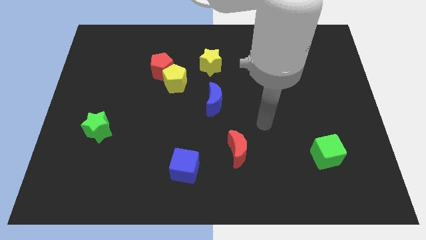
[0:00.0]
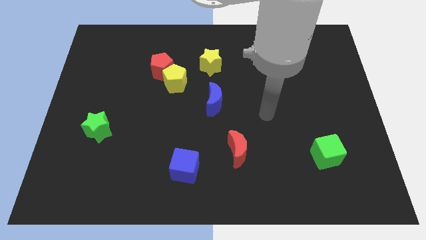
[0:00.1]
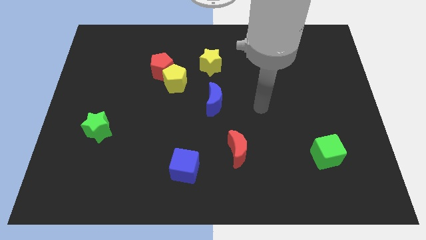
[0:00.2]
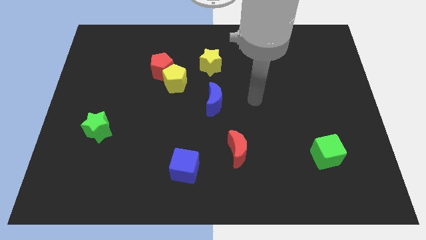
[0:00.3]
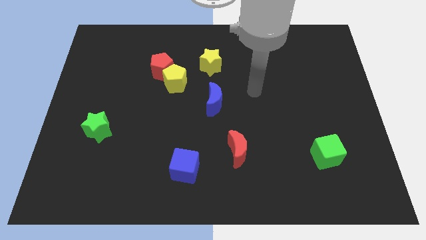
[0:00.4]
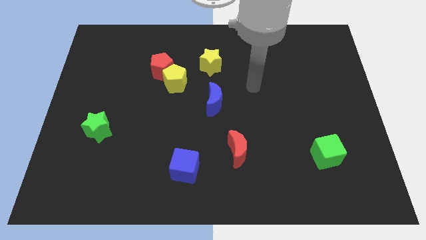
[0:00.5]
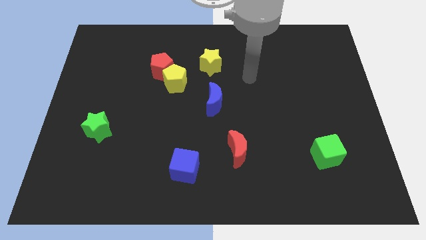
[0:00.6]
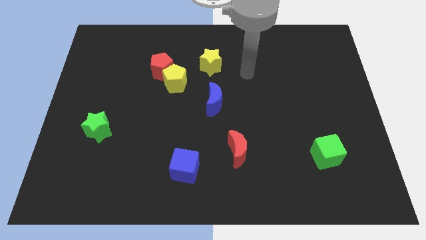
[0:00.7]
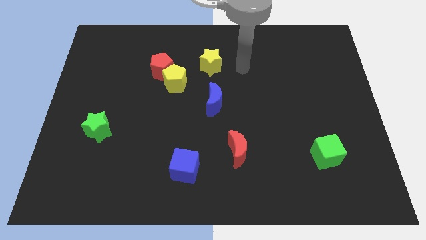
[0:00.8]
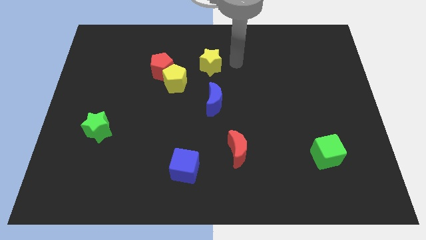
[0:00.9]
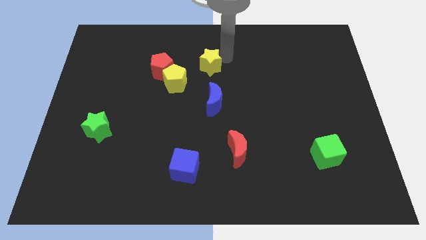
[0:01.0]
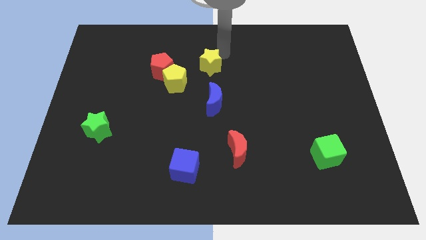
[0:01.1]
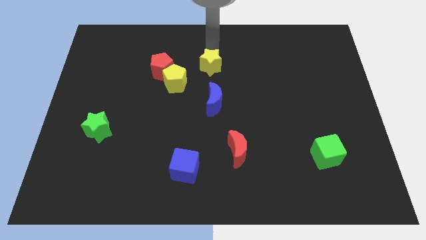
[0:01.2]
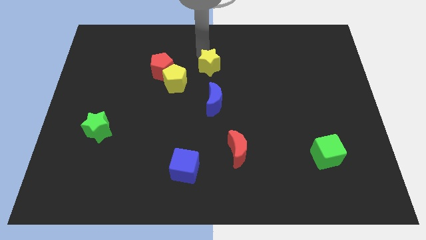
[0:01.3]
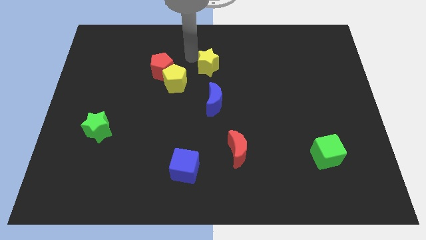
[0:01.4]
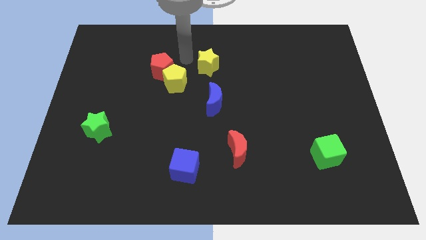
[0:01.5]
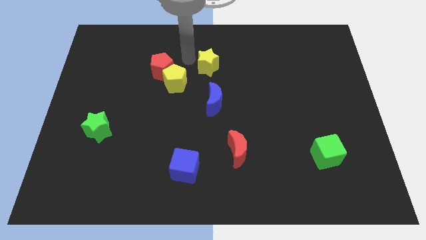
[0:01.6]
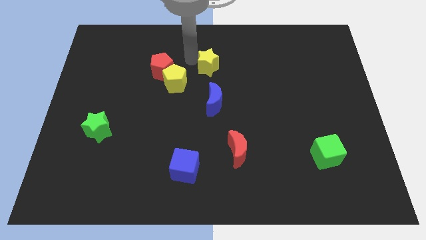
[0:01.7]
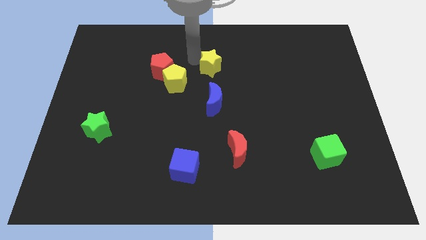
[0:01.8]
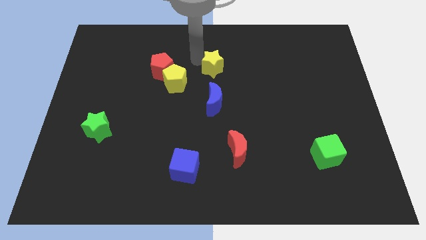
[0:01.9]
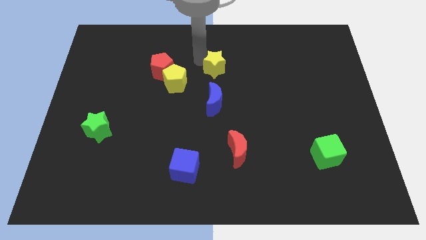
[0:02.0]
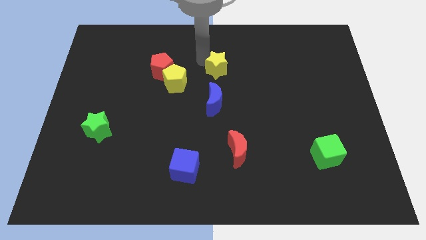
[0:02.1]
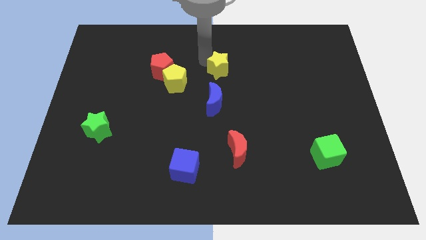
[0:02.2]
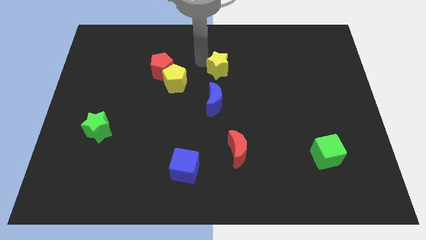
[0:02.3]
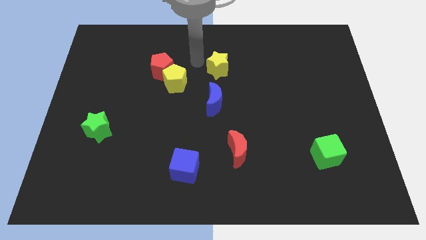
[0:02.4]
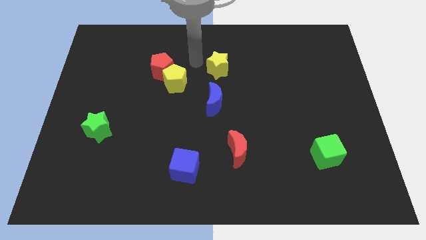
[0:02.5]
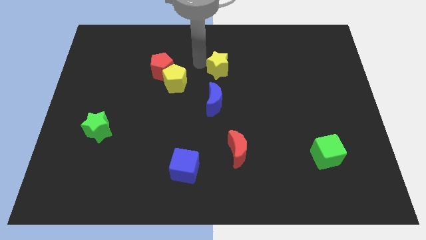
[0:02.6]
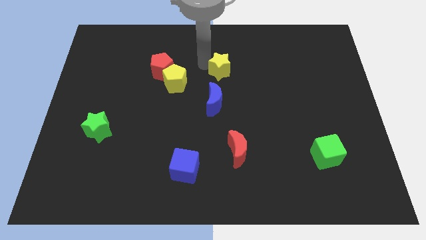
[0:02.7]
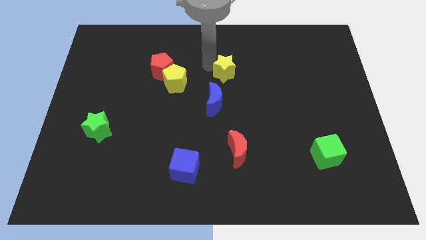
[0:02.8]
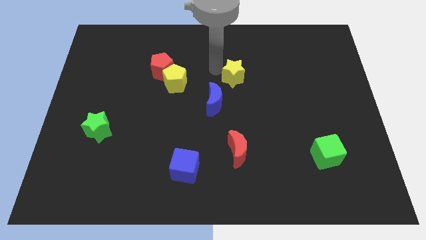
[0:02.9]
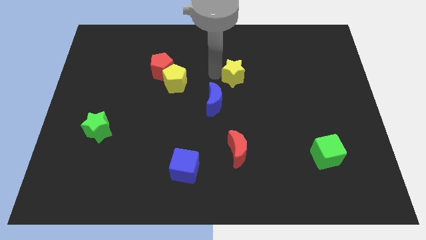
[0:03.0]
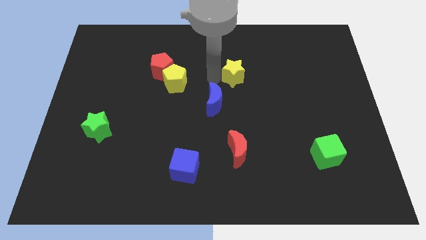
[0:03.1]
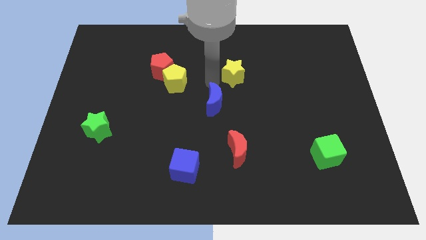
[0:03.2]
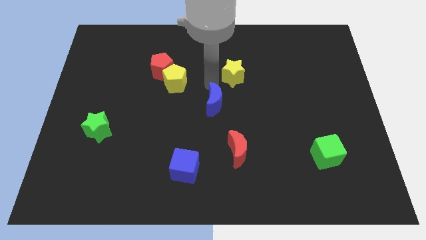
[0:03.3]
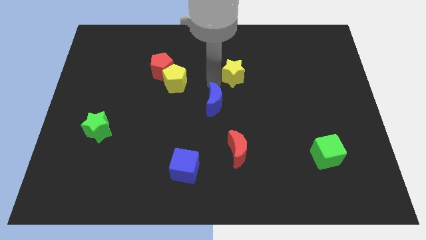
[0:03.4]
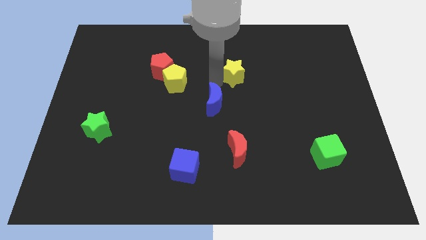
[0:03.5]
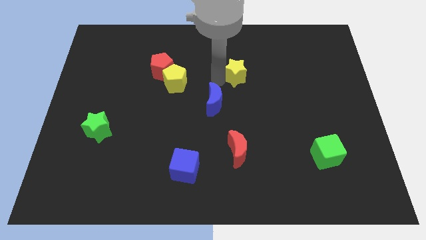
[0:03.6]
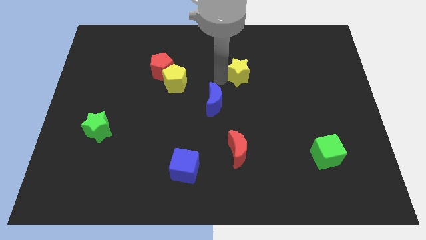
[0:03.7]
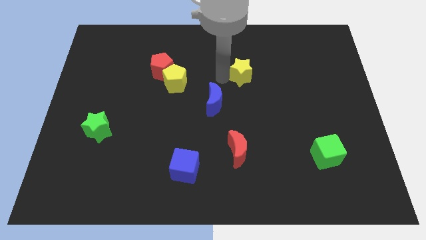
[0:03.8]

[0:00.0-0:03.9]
slide the yellow star right a bit

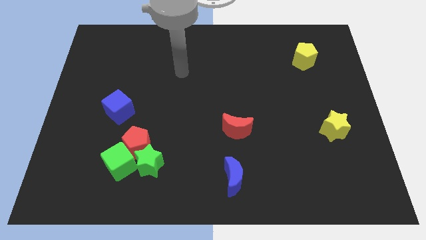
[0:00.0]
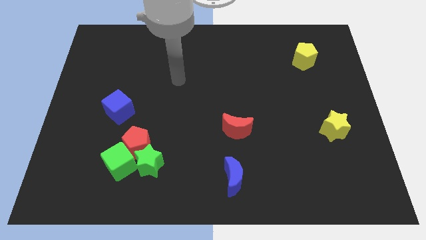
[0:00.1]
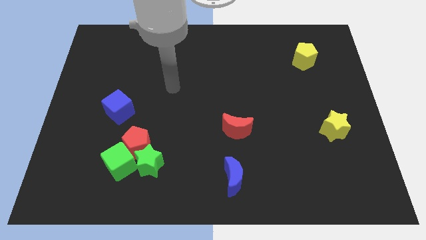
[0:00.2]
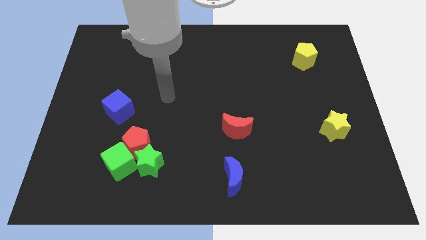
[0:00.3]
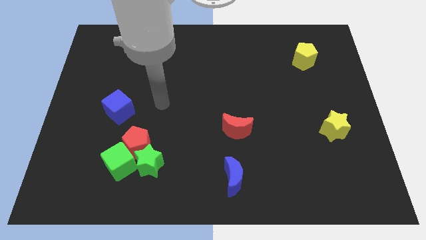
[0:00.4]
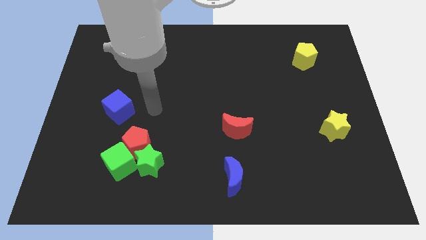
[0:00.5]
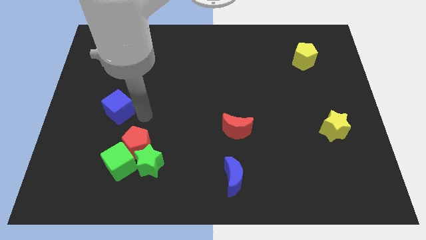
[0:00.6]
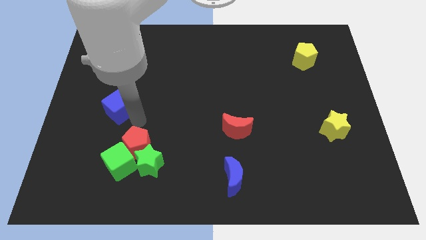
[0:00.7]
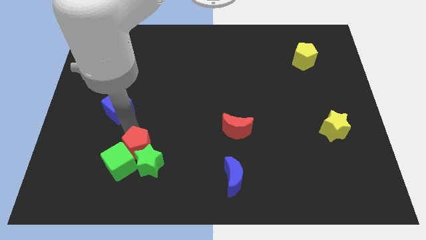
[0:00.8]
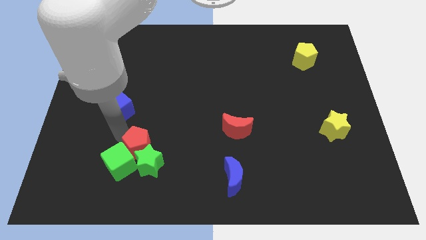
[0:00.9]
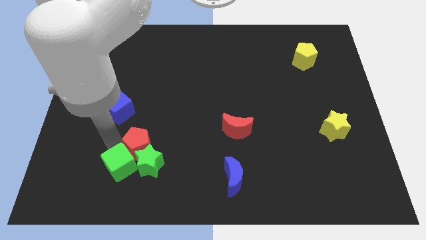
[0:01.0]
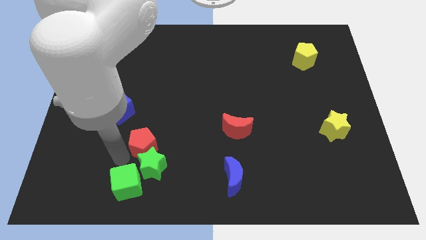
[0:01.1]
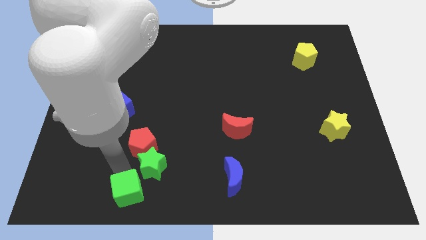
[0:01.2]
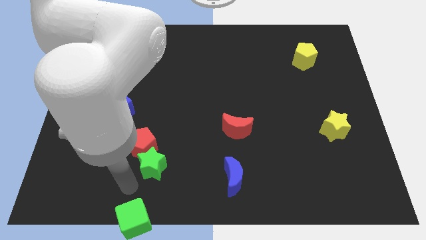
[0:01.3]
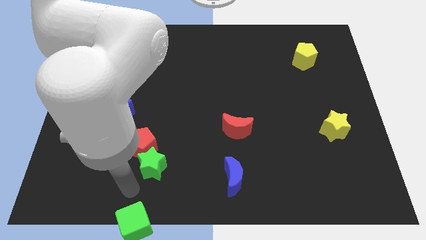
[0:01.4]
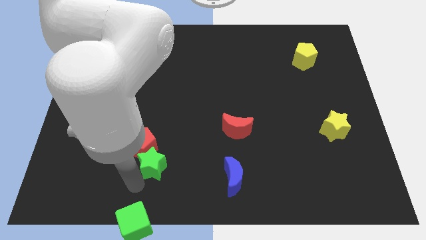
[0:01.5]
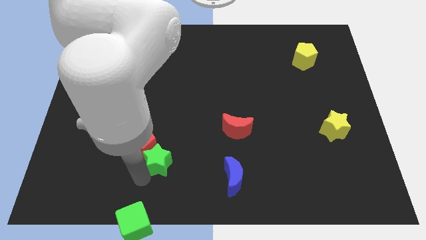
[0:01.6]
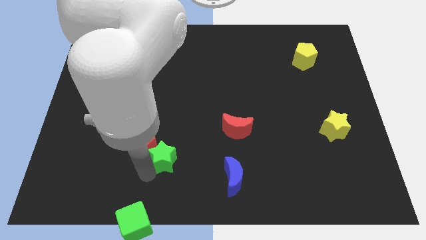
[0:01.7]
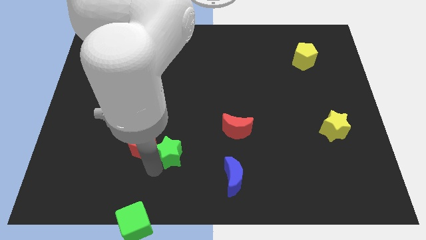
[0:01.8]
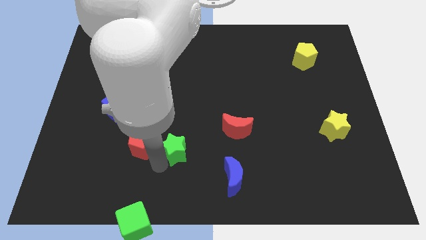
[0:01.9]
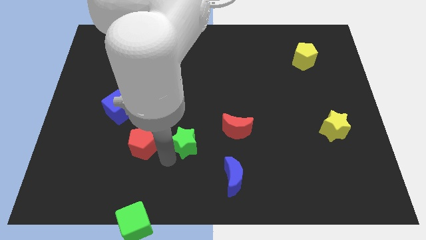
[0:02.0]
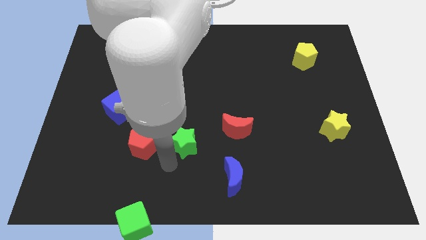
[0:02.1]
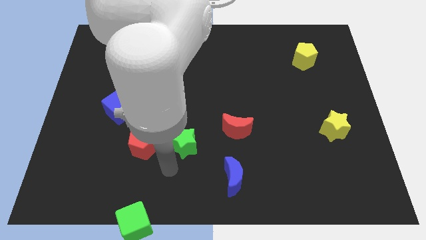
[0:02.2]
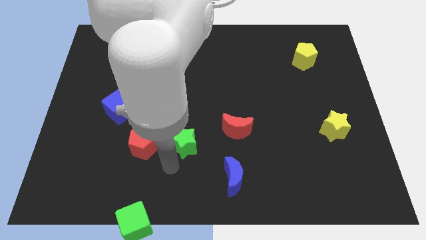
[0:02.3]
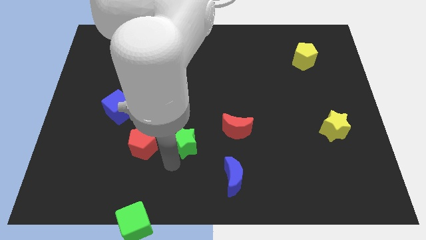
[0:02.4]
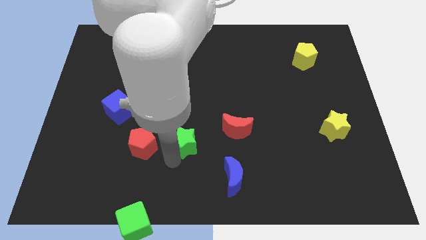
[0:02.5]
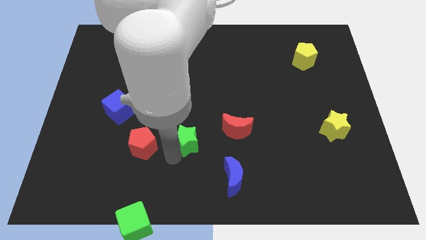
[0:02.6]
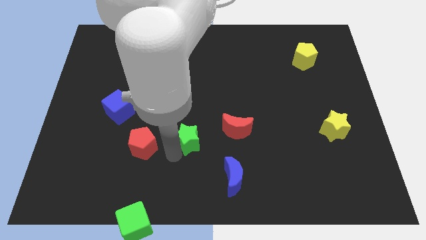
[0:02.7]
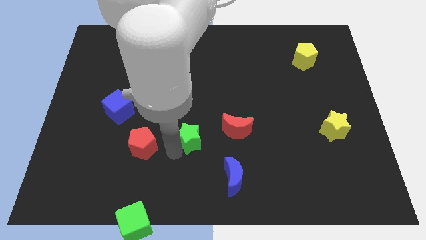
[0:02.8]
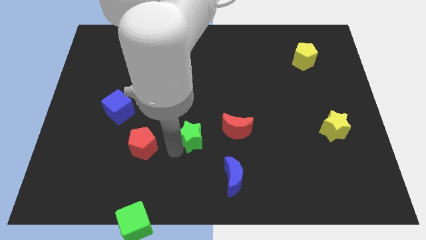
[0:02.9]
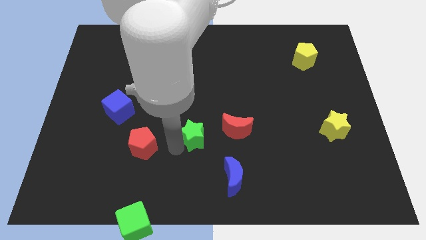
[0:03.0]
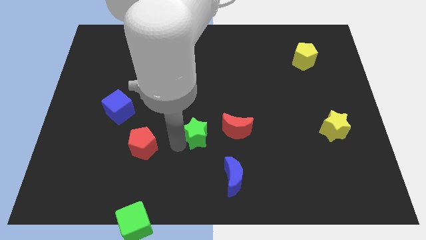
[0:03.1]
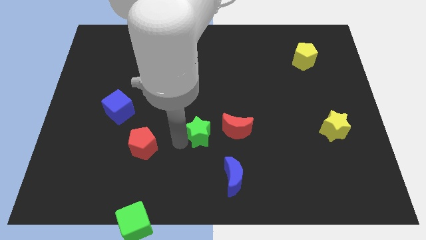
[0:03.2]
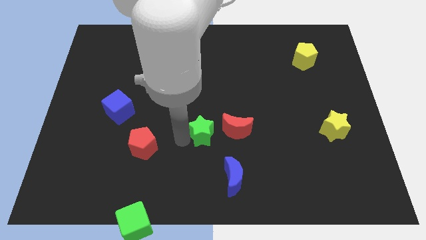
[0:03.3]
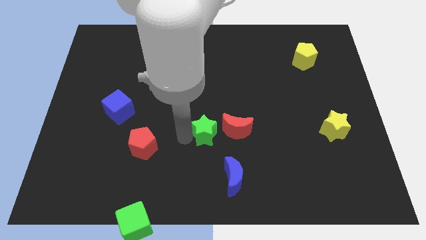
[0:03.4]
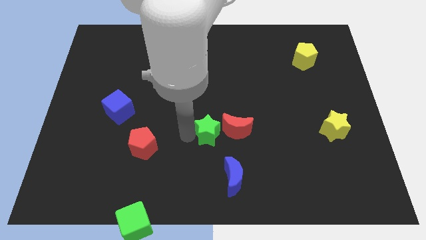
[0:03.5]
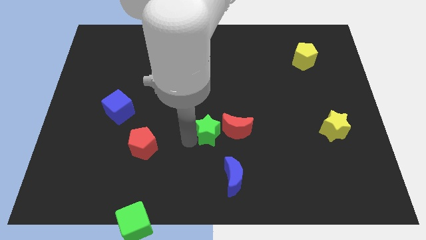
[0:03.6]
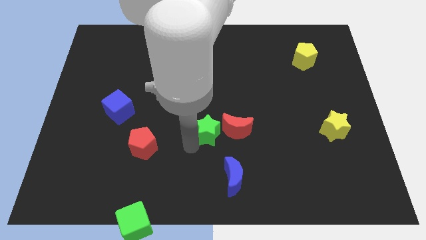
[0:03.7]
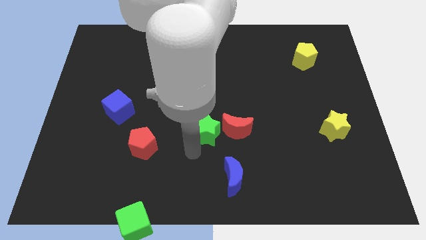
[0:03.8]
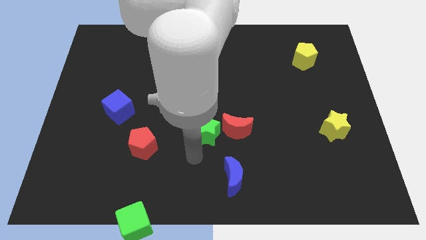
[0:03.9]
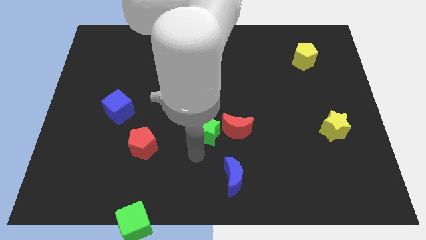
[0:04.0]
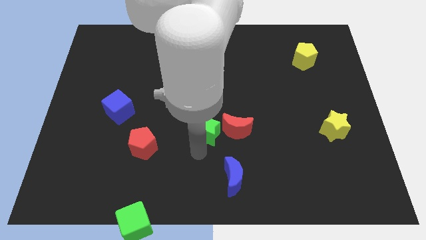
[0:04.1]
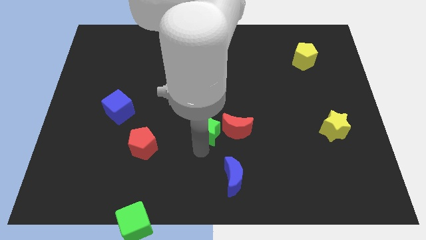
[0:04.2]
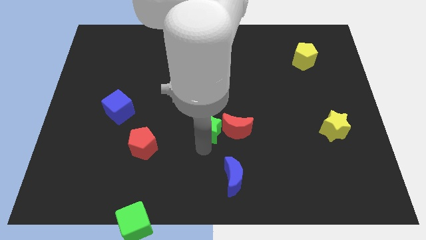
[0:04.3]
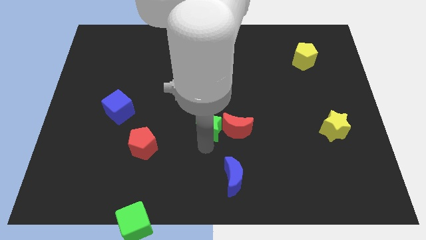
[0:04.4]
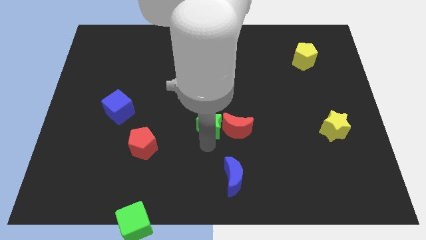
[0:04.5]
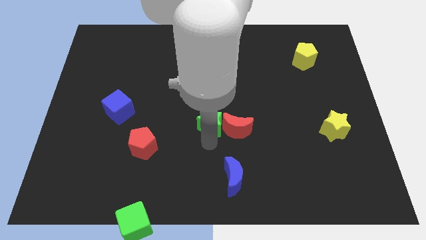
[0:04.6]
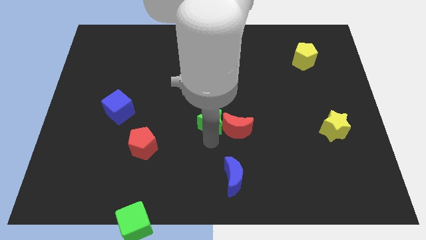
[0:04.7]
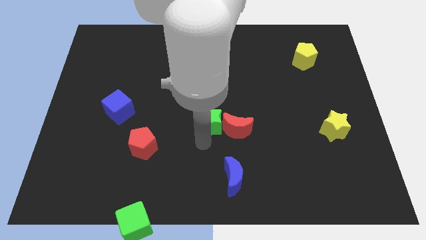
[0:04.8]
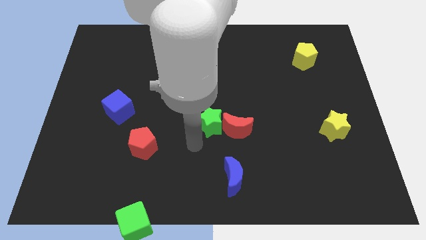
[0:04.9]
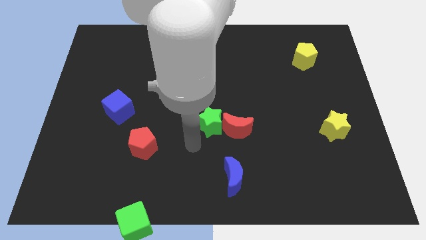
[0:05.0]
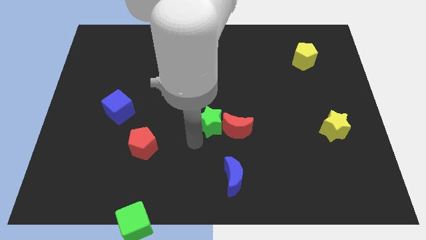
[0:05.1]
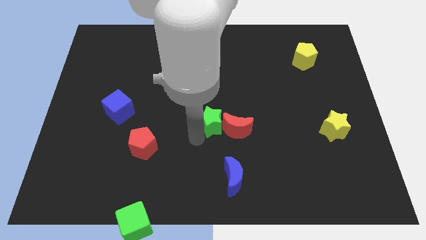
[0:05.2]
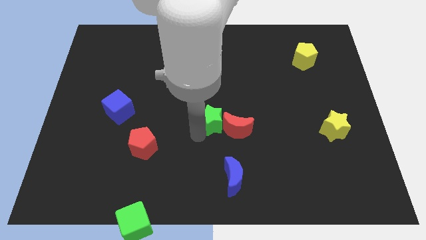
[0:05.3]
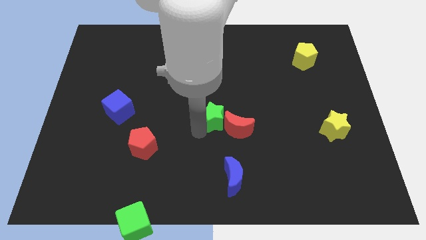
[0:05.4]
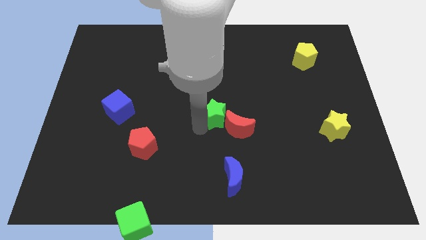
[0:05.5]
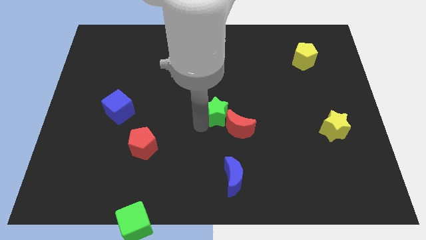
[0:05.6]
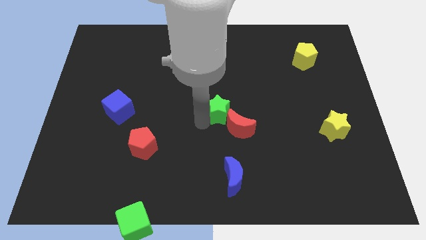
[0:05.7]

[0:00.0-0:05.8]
slide the green star upwards and right diagonally
